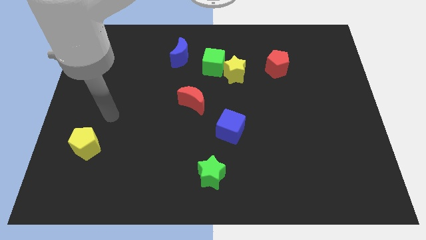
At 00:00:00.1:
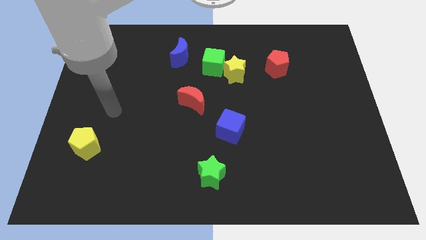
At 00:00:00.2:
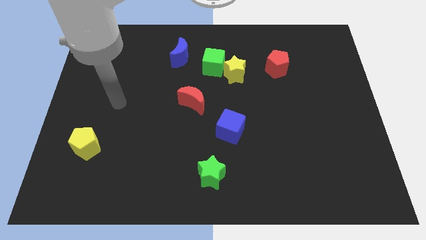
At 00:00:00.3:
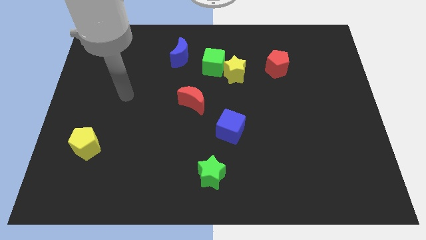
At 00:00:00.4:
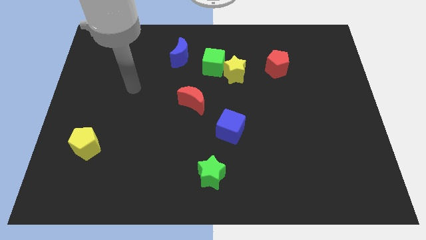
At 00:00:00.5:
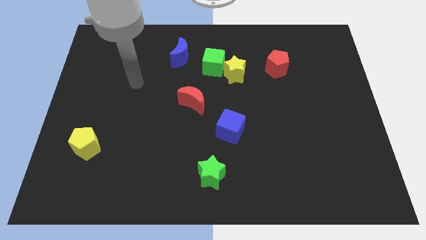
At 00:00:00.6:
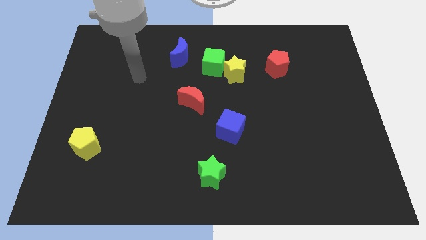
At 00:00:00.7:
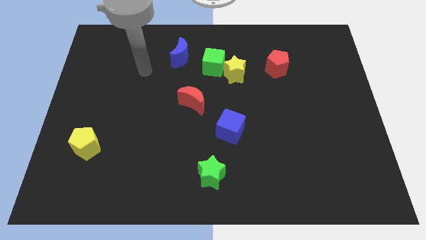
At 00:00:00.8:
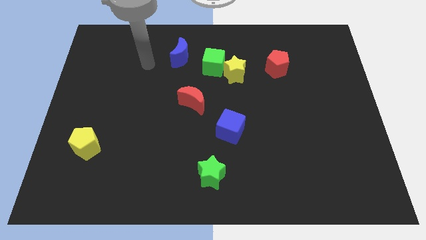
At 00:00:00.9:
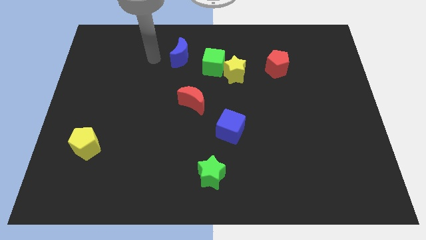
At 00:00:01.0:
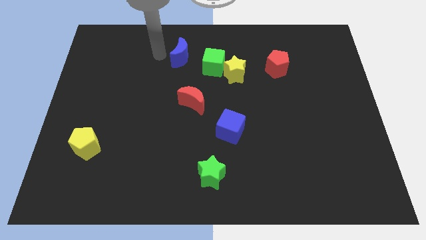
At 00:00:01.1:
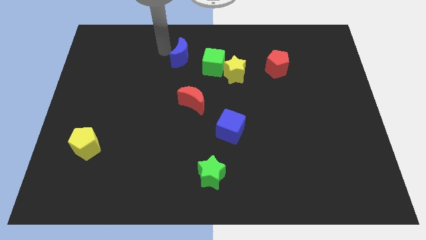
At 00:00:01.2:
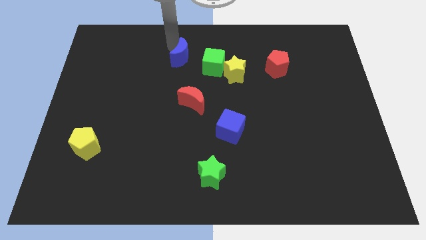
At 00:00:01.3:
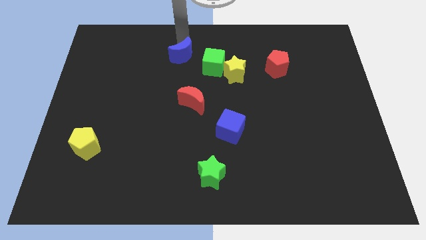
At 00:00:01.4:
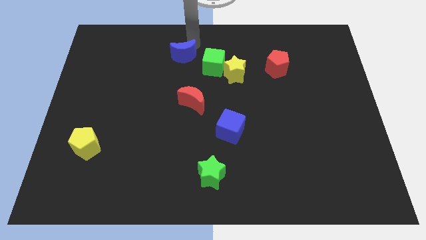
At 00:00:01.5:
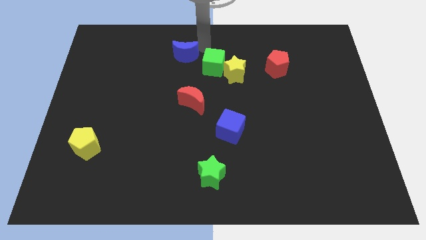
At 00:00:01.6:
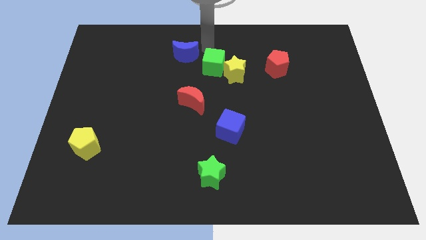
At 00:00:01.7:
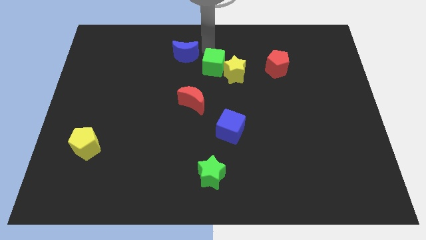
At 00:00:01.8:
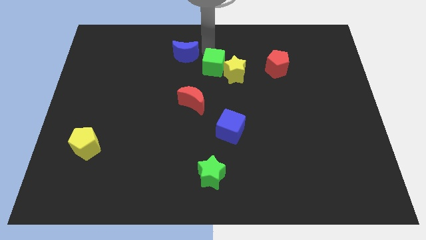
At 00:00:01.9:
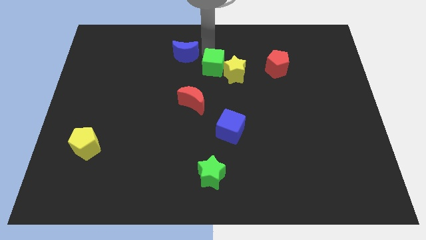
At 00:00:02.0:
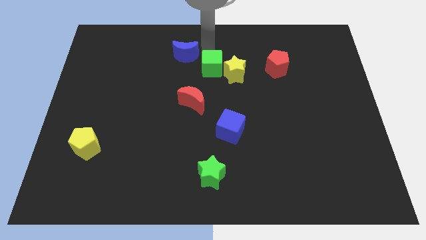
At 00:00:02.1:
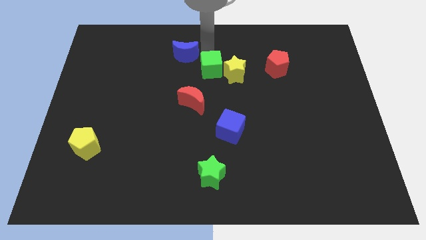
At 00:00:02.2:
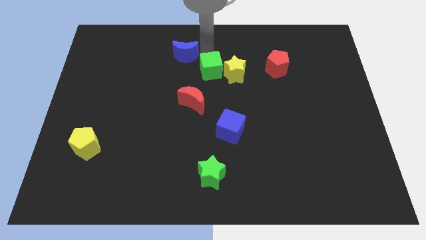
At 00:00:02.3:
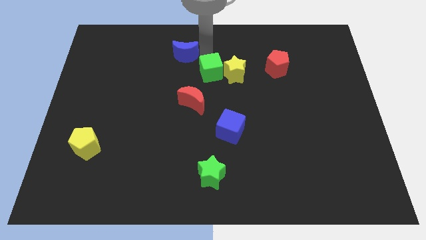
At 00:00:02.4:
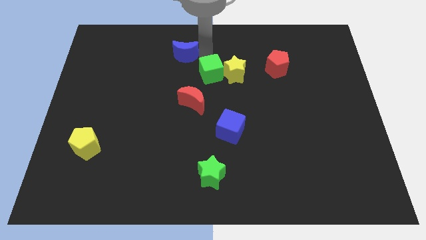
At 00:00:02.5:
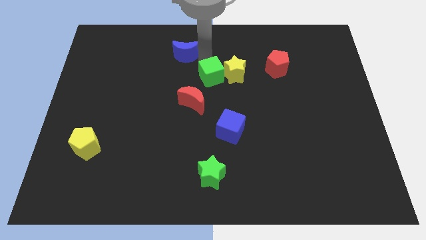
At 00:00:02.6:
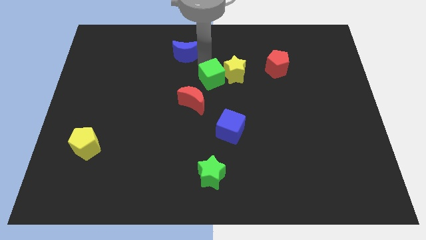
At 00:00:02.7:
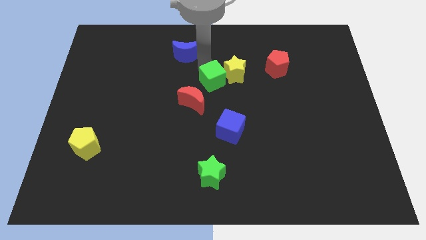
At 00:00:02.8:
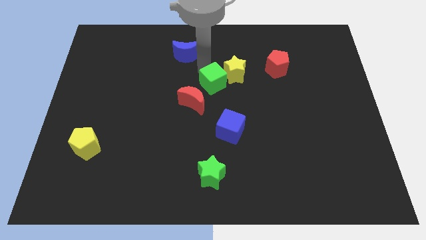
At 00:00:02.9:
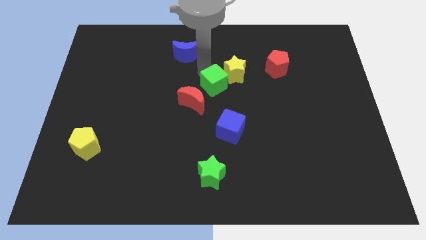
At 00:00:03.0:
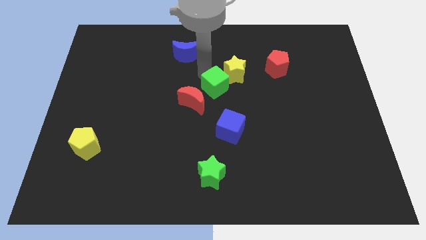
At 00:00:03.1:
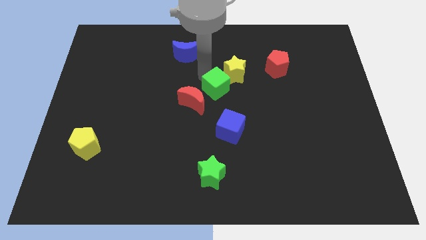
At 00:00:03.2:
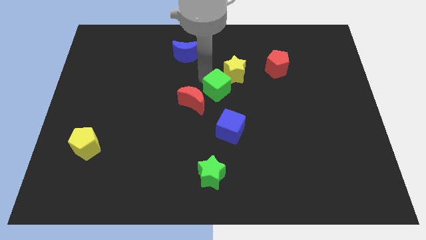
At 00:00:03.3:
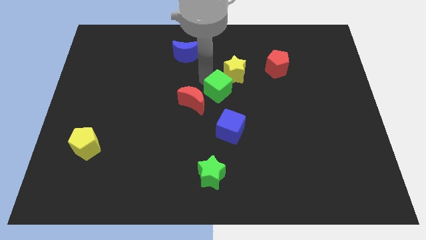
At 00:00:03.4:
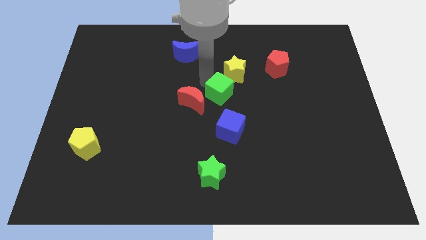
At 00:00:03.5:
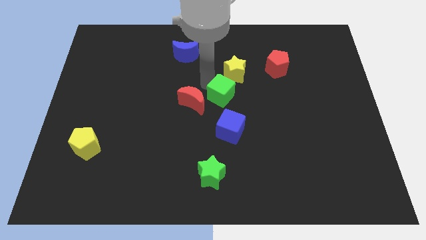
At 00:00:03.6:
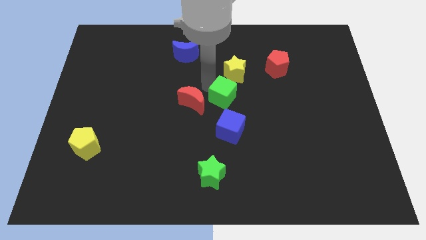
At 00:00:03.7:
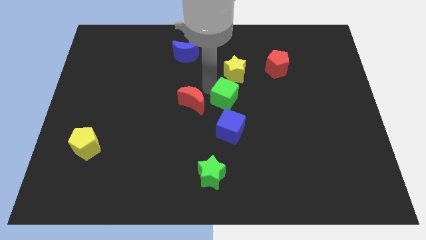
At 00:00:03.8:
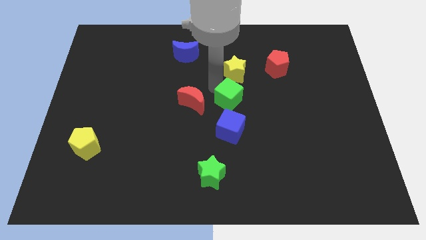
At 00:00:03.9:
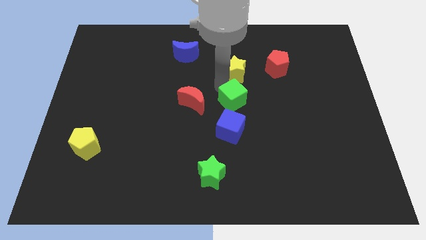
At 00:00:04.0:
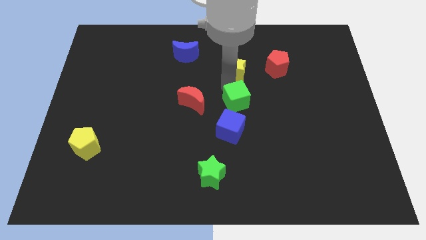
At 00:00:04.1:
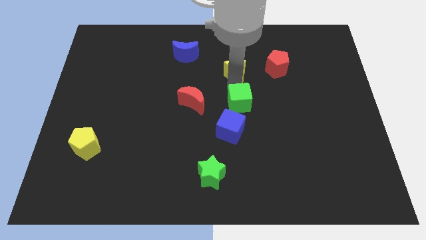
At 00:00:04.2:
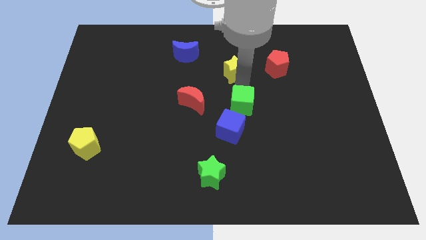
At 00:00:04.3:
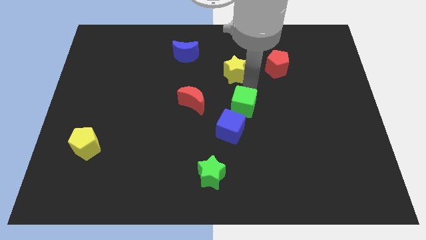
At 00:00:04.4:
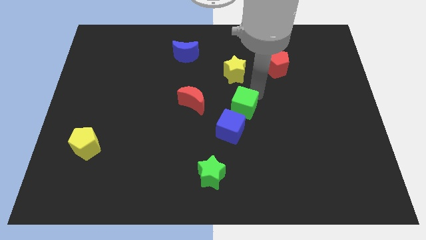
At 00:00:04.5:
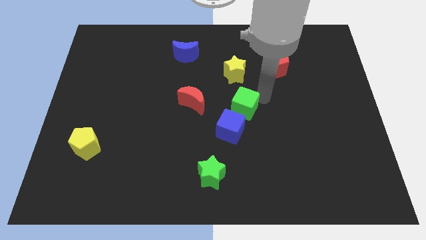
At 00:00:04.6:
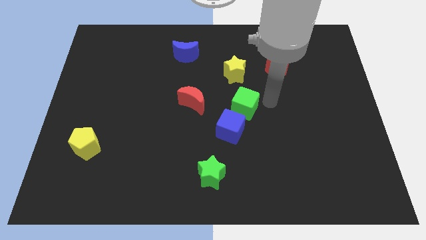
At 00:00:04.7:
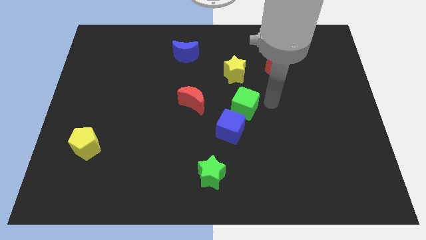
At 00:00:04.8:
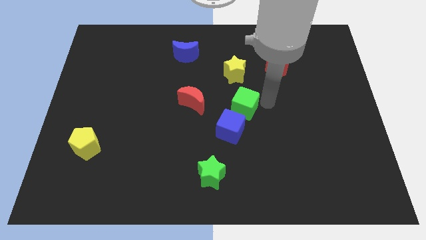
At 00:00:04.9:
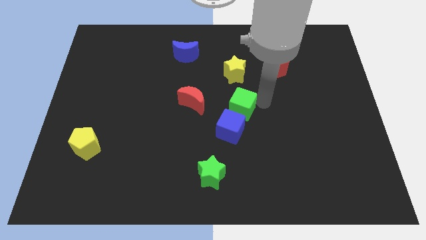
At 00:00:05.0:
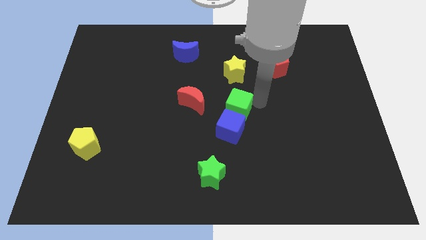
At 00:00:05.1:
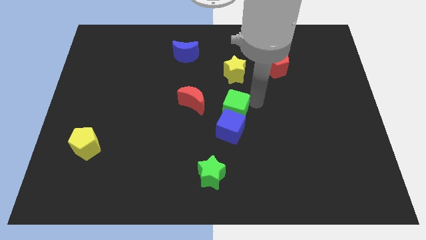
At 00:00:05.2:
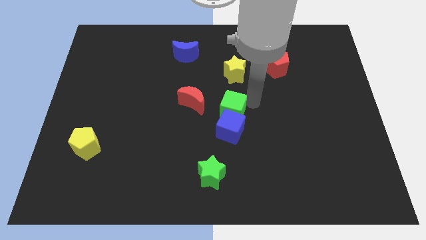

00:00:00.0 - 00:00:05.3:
push the green cube diagonally up and to the left of the blue cube

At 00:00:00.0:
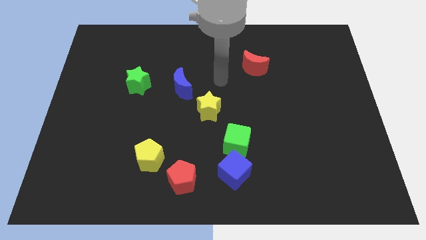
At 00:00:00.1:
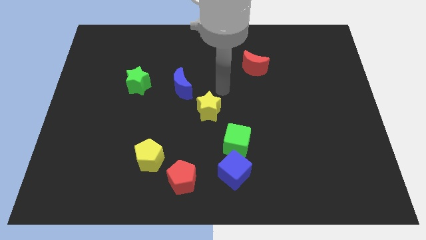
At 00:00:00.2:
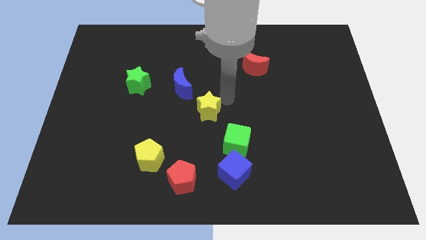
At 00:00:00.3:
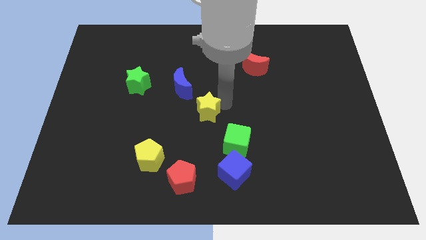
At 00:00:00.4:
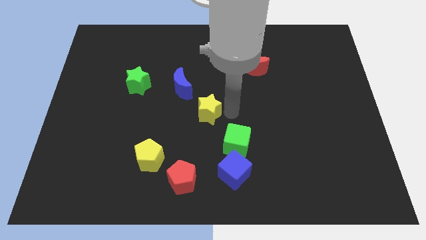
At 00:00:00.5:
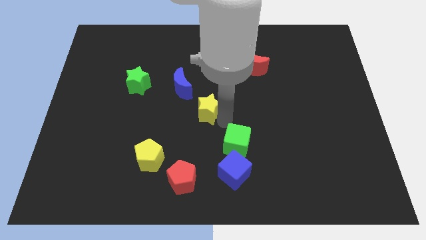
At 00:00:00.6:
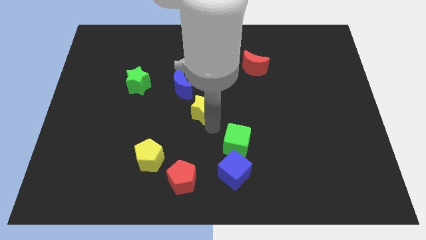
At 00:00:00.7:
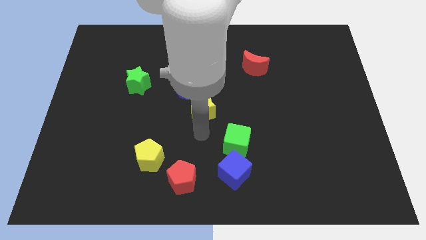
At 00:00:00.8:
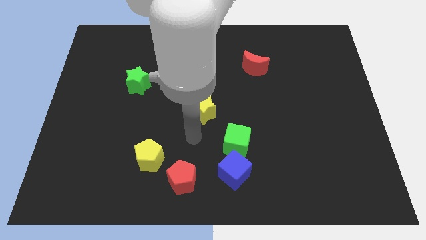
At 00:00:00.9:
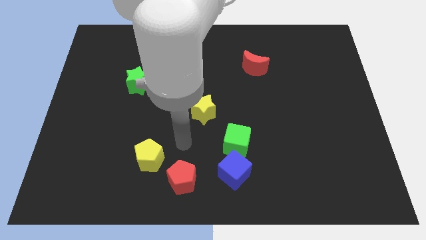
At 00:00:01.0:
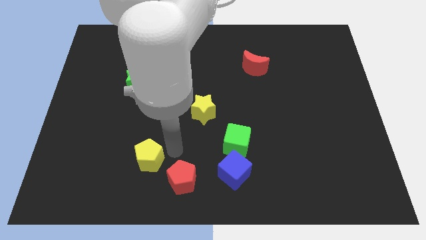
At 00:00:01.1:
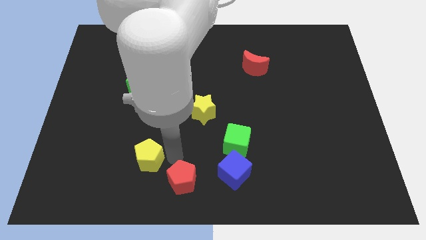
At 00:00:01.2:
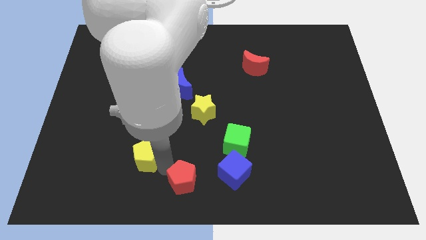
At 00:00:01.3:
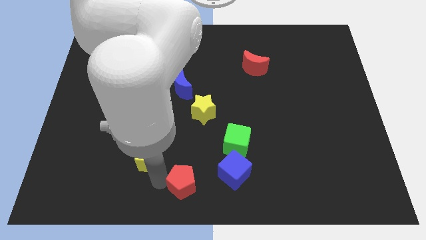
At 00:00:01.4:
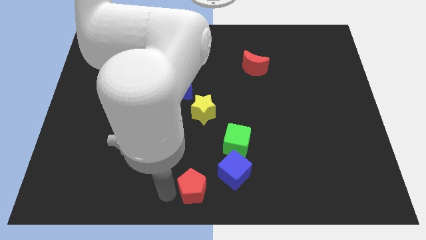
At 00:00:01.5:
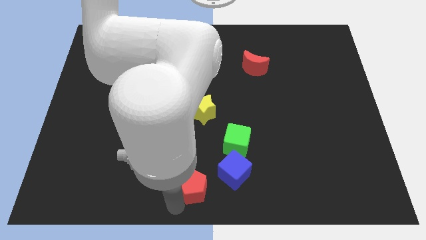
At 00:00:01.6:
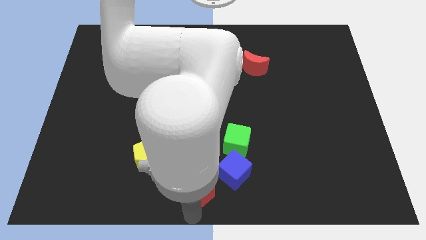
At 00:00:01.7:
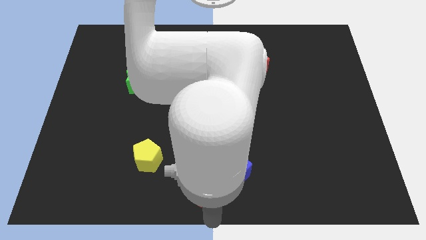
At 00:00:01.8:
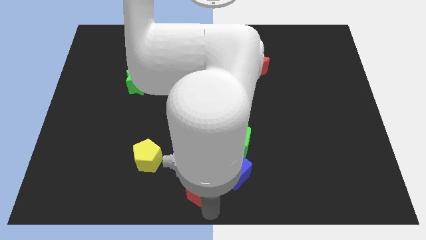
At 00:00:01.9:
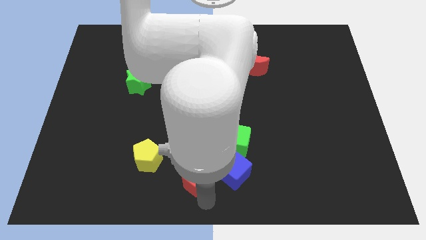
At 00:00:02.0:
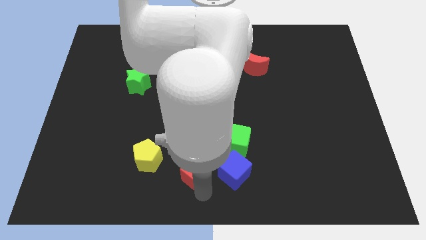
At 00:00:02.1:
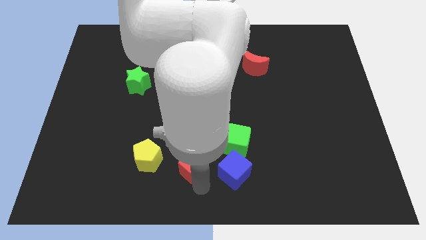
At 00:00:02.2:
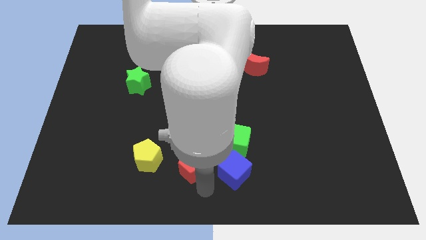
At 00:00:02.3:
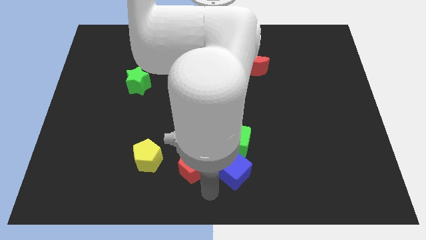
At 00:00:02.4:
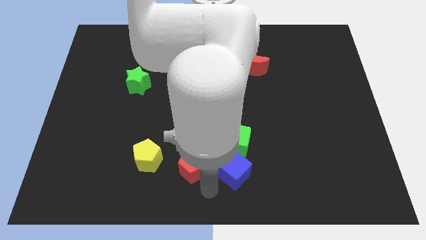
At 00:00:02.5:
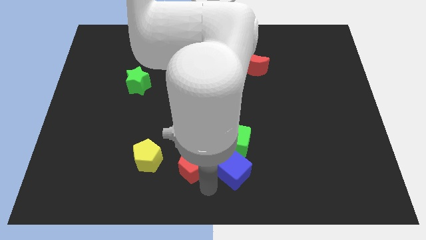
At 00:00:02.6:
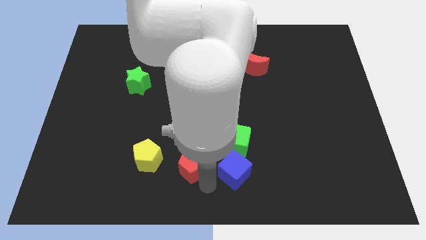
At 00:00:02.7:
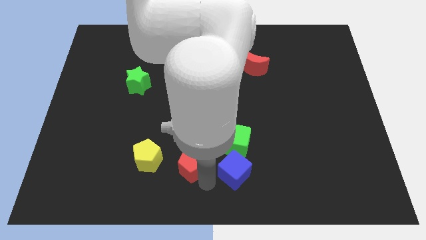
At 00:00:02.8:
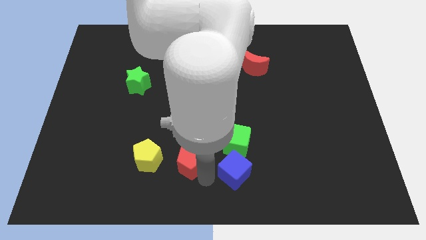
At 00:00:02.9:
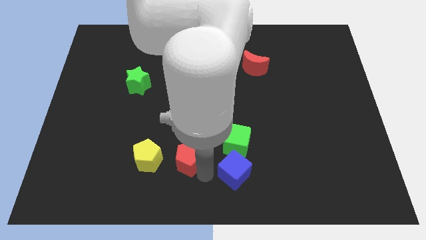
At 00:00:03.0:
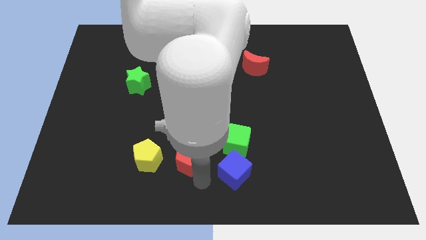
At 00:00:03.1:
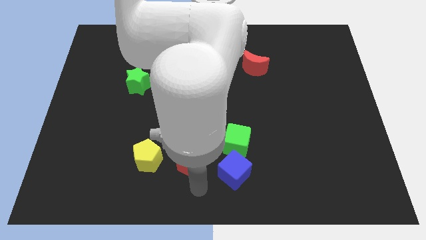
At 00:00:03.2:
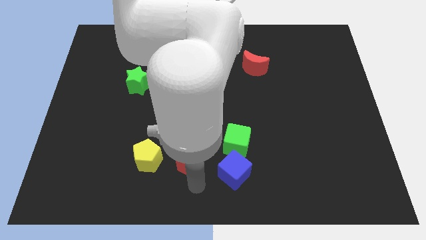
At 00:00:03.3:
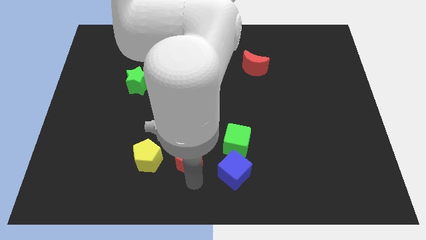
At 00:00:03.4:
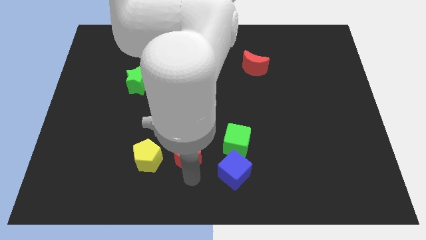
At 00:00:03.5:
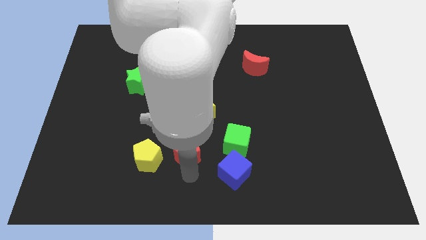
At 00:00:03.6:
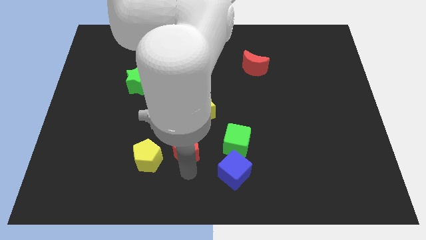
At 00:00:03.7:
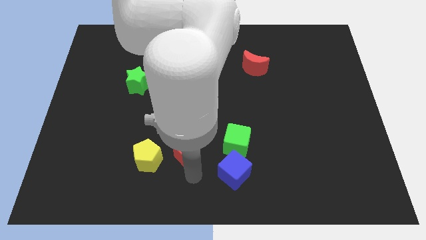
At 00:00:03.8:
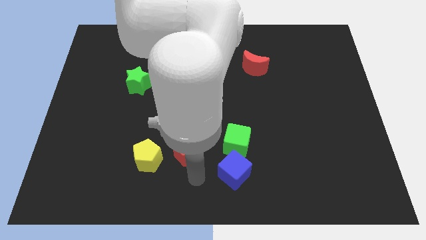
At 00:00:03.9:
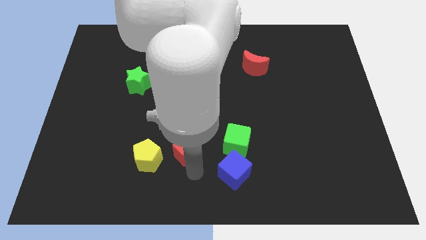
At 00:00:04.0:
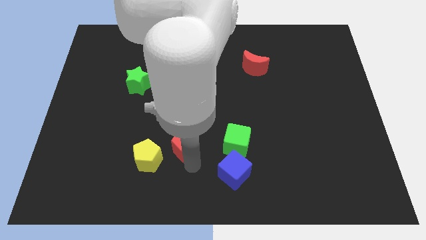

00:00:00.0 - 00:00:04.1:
move the red pentagon to the bottom left of the yellow star
